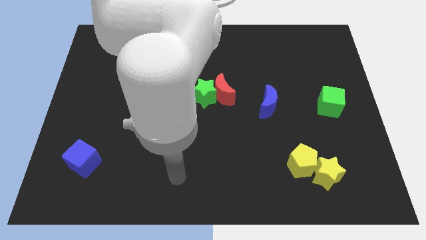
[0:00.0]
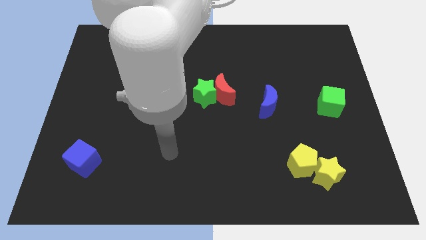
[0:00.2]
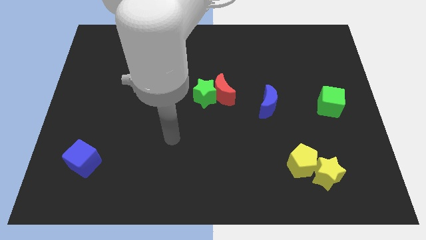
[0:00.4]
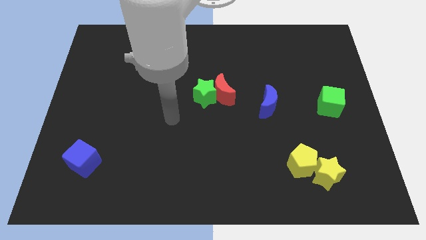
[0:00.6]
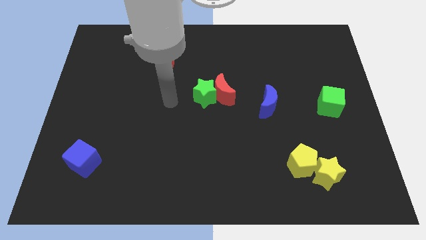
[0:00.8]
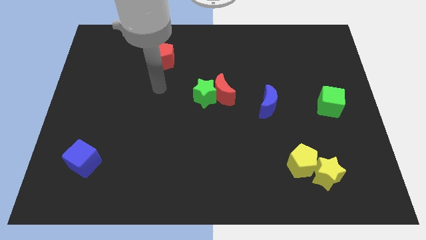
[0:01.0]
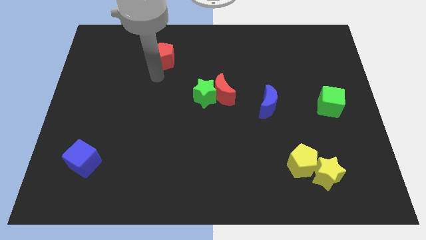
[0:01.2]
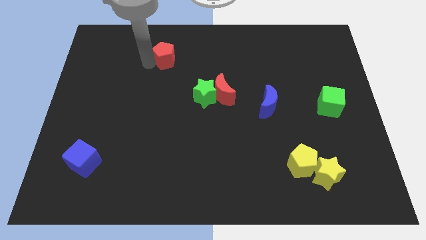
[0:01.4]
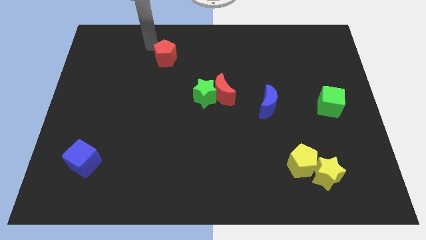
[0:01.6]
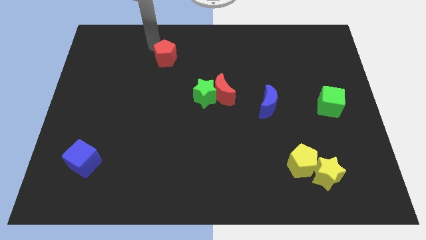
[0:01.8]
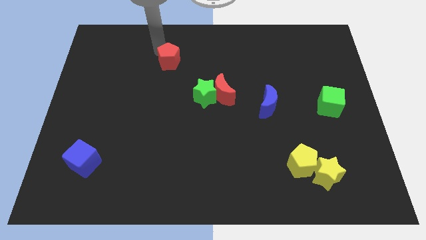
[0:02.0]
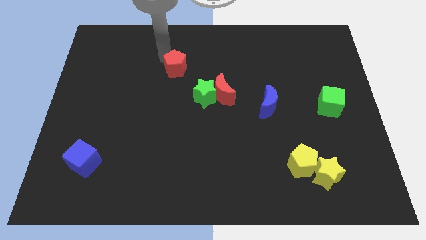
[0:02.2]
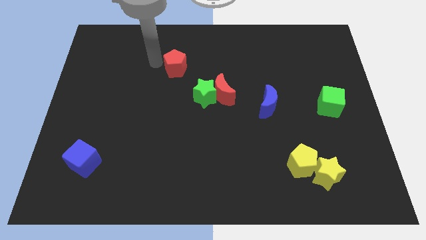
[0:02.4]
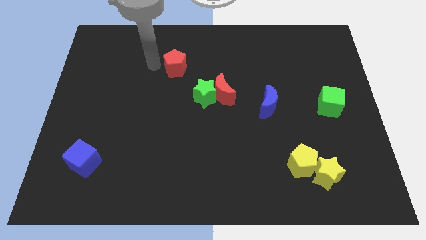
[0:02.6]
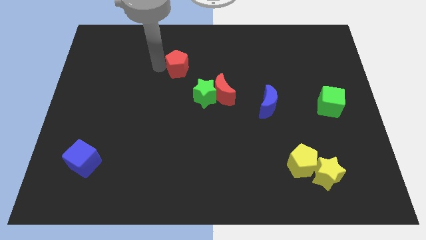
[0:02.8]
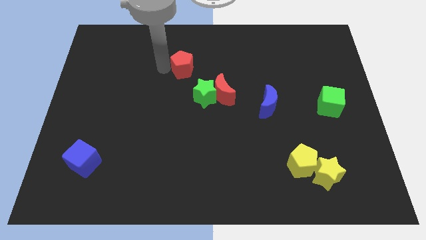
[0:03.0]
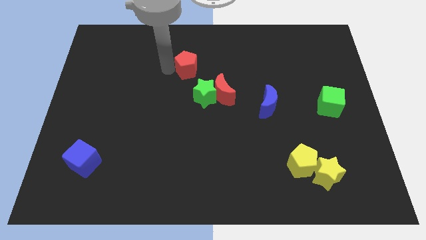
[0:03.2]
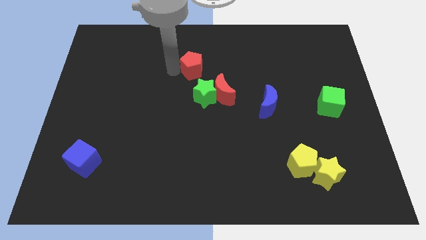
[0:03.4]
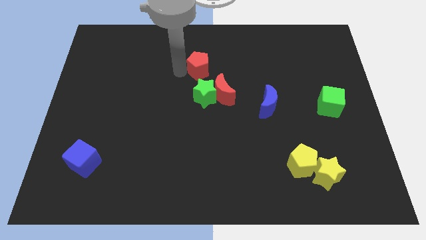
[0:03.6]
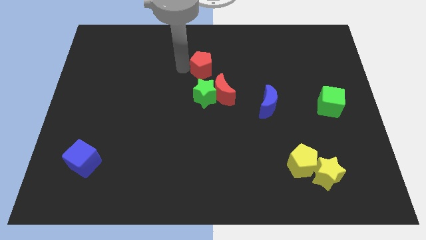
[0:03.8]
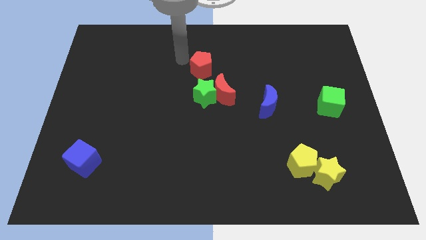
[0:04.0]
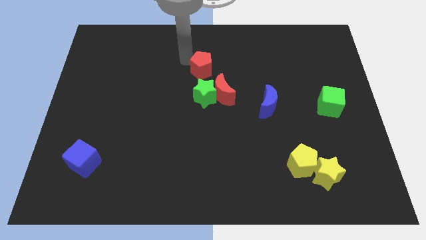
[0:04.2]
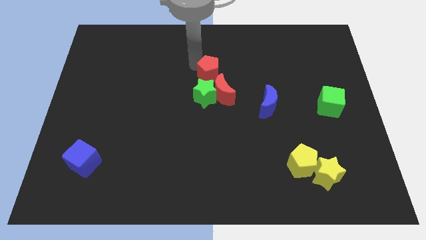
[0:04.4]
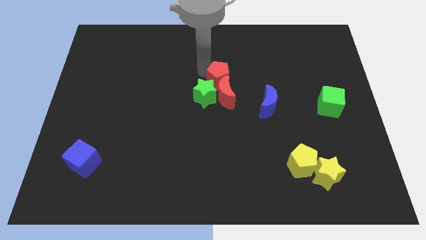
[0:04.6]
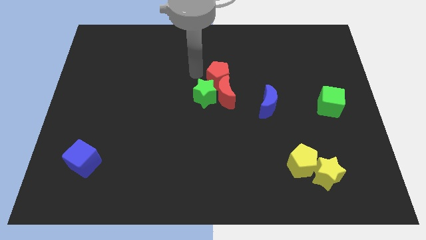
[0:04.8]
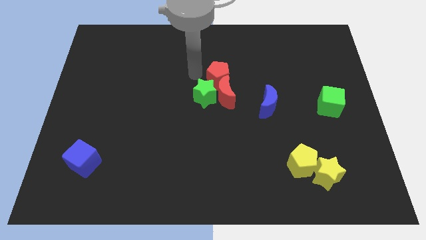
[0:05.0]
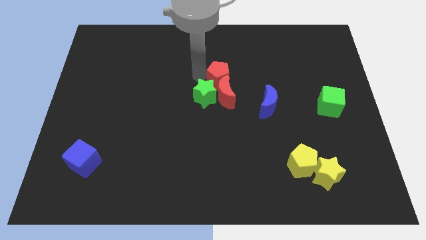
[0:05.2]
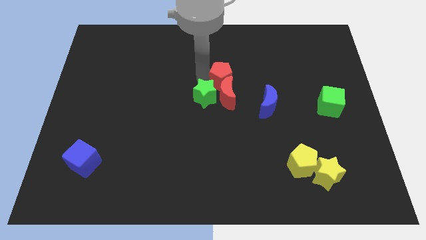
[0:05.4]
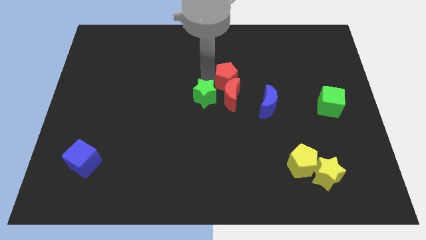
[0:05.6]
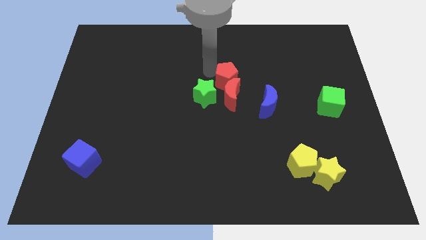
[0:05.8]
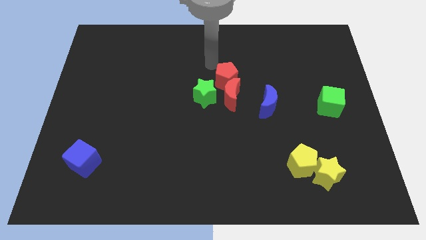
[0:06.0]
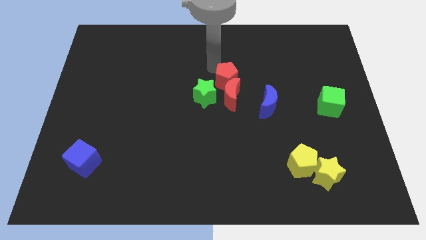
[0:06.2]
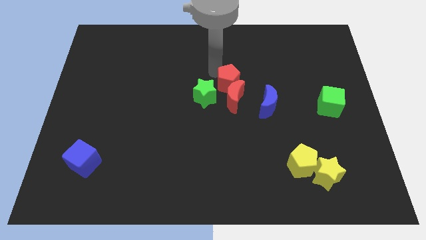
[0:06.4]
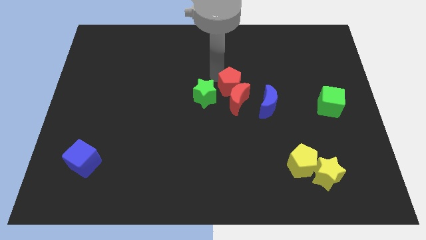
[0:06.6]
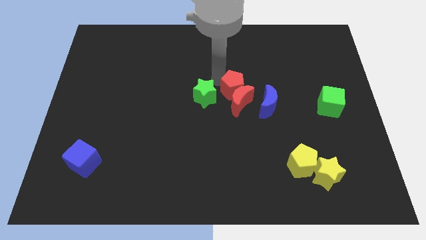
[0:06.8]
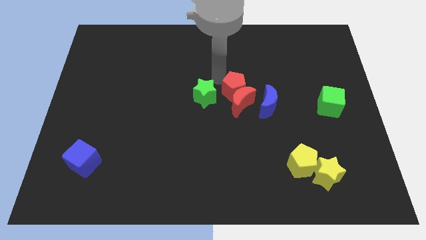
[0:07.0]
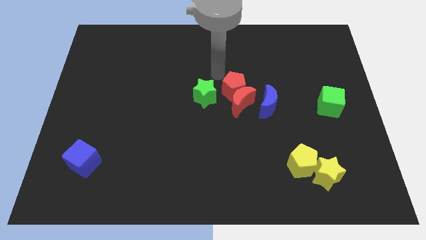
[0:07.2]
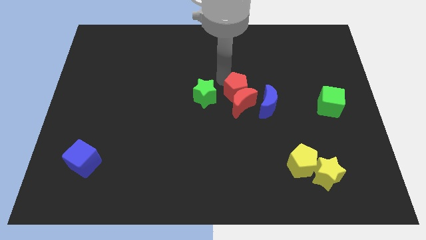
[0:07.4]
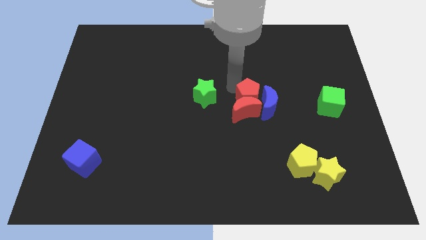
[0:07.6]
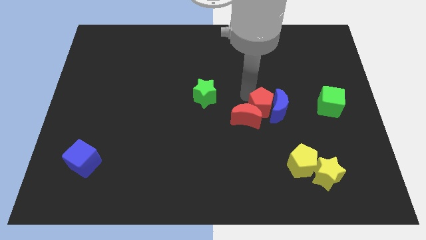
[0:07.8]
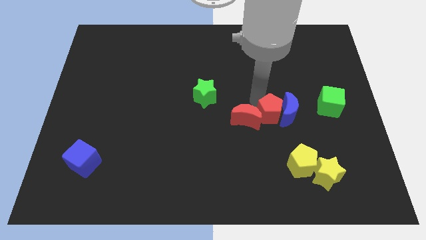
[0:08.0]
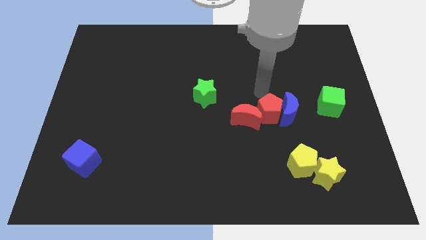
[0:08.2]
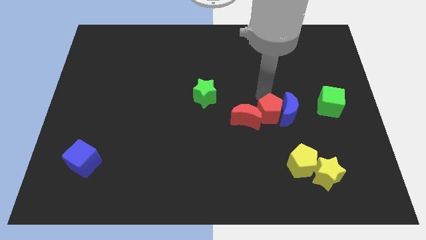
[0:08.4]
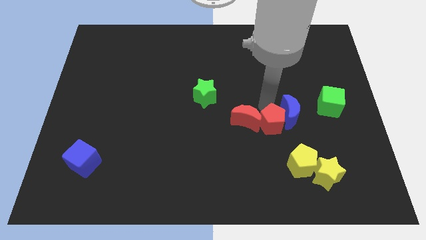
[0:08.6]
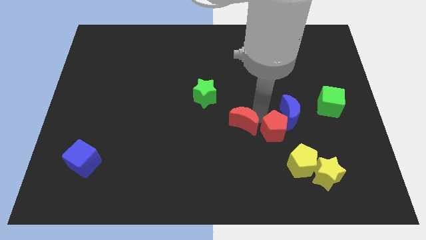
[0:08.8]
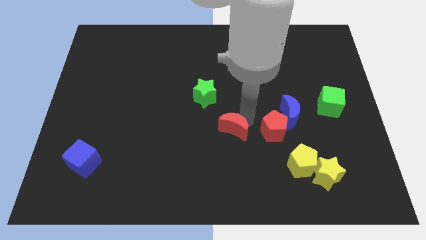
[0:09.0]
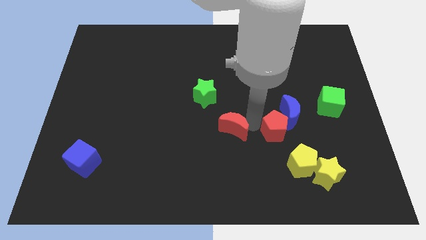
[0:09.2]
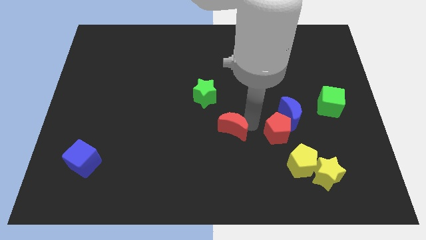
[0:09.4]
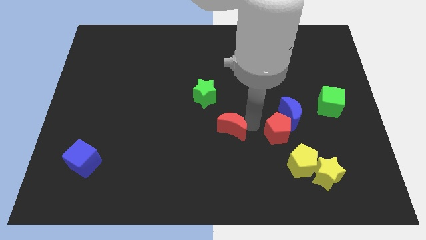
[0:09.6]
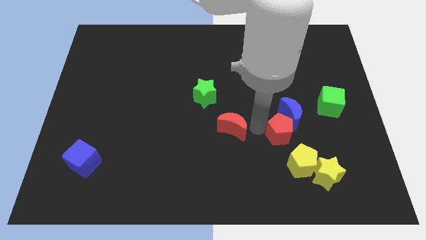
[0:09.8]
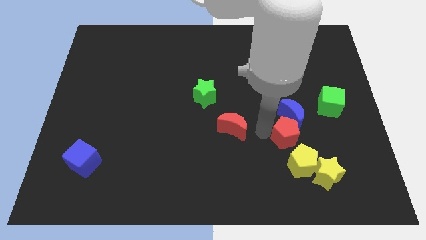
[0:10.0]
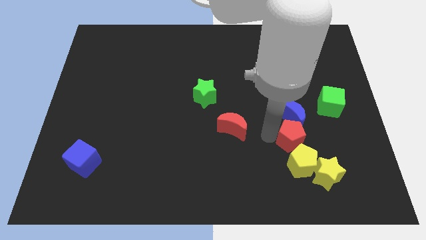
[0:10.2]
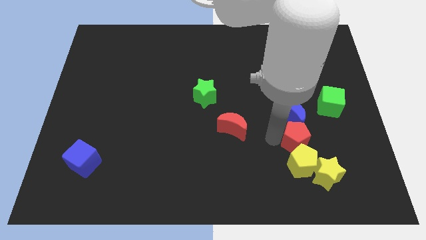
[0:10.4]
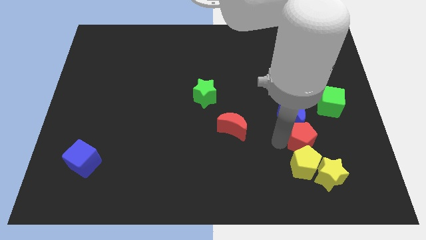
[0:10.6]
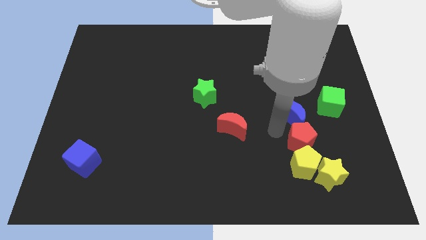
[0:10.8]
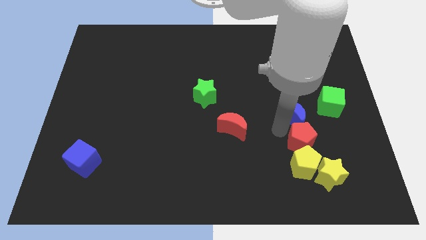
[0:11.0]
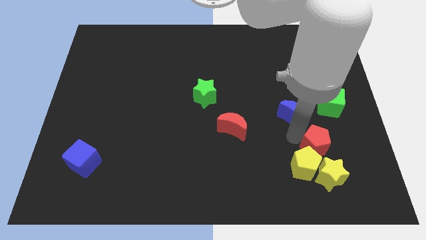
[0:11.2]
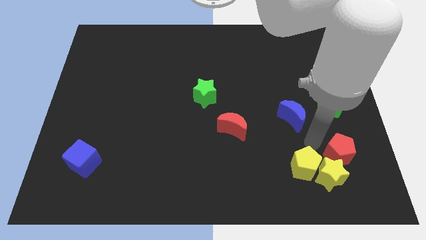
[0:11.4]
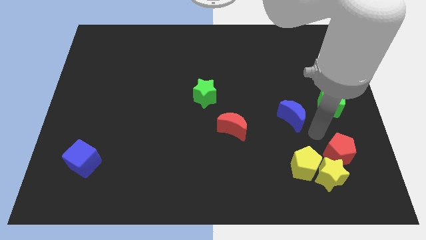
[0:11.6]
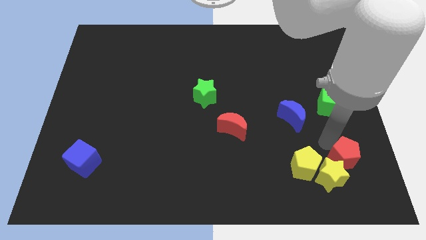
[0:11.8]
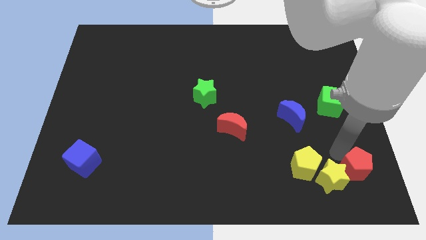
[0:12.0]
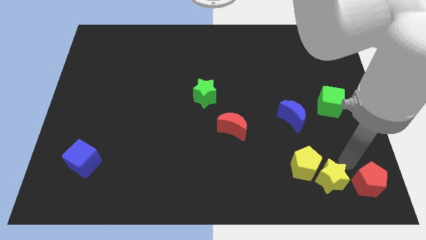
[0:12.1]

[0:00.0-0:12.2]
slide the red pentagon to the bottom right corner

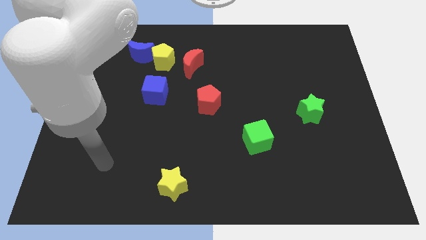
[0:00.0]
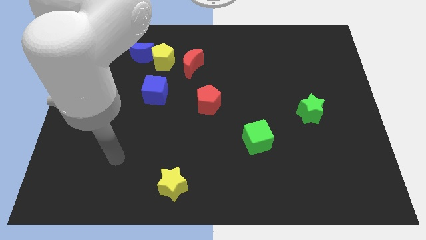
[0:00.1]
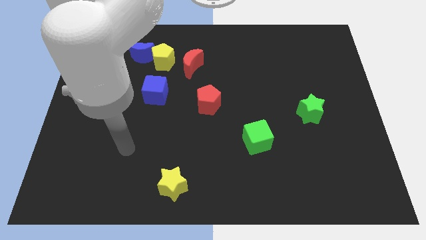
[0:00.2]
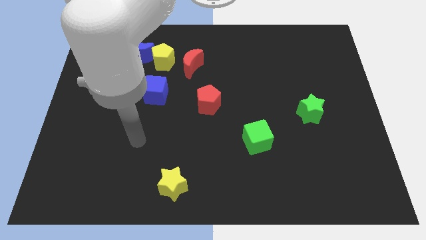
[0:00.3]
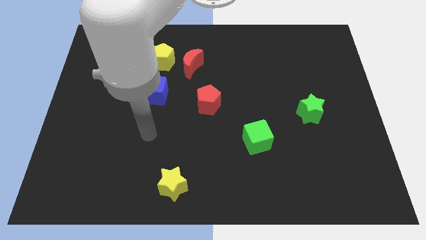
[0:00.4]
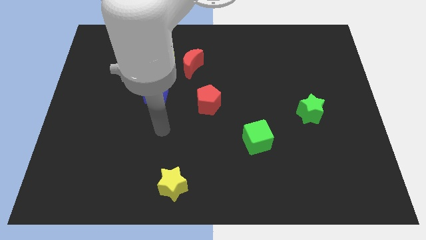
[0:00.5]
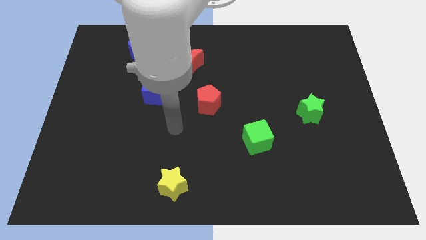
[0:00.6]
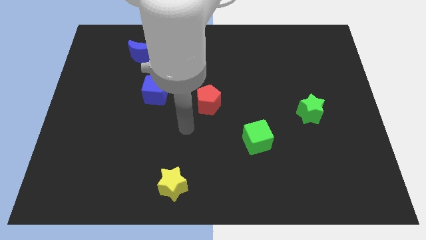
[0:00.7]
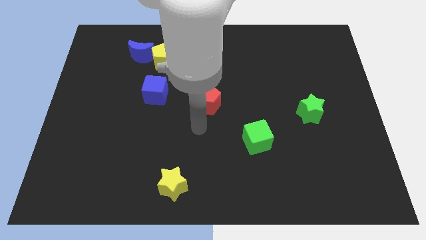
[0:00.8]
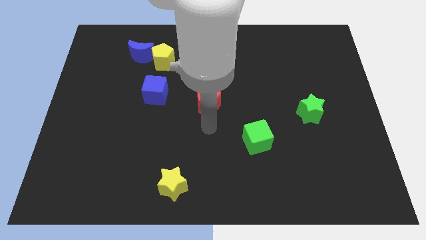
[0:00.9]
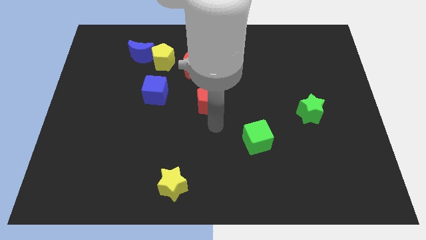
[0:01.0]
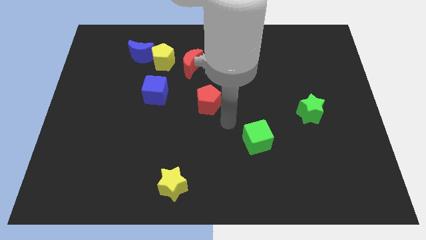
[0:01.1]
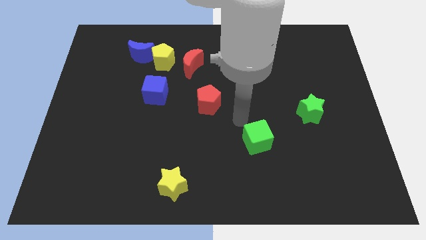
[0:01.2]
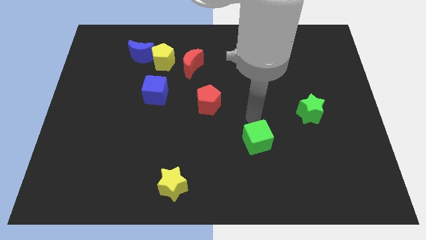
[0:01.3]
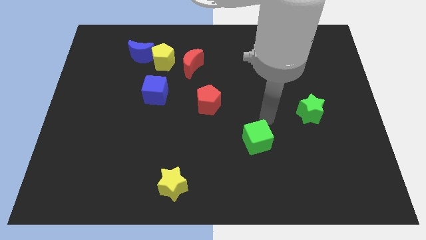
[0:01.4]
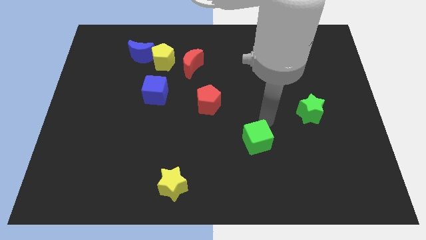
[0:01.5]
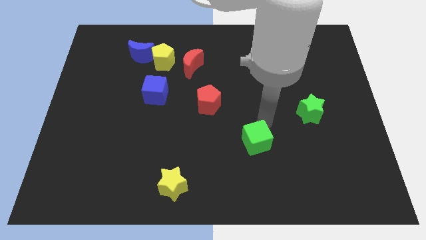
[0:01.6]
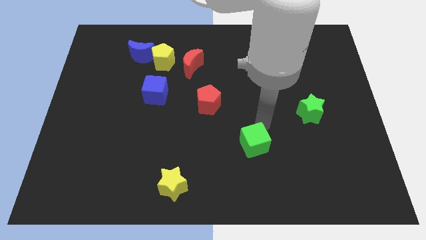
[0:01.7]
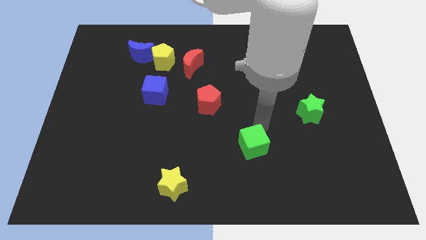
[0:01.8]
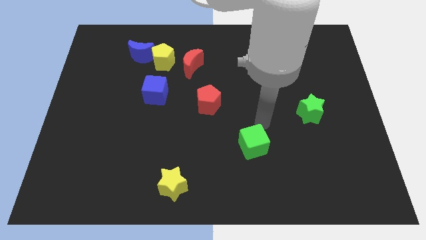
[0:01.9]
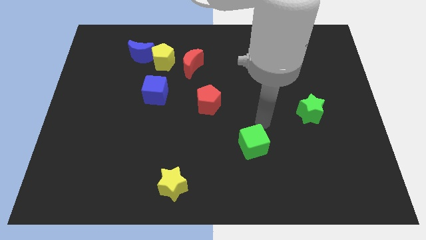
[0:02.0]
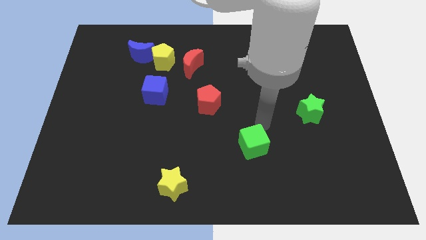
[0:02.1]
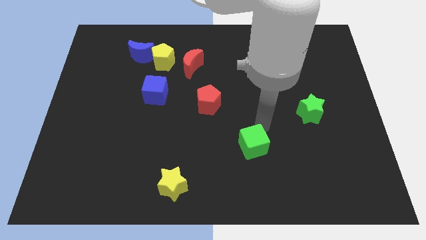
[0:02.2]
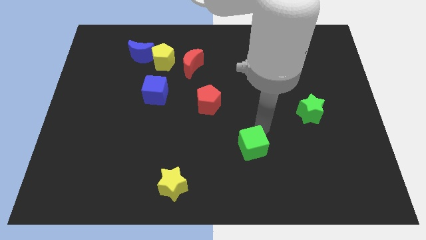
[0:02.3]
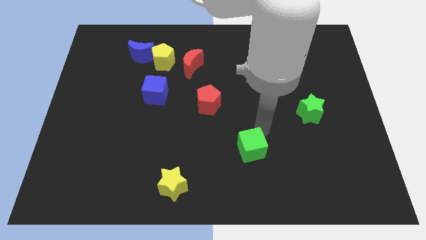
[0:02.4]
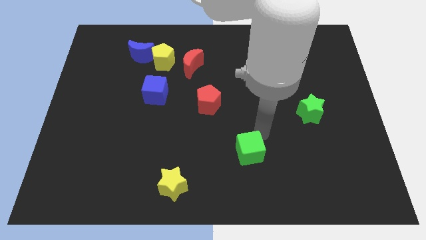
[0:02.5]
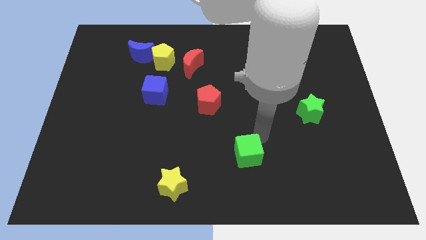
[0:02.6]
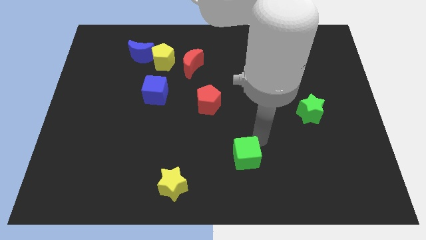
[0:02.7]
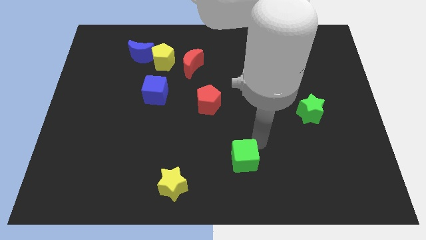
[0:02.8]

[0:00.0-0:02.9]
push the green cube to the bottom
